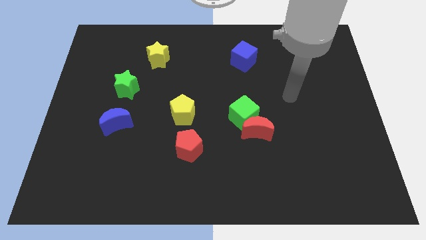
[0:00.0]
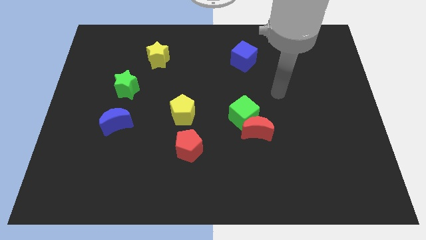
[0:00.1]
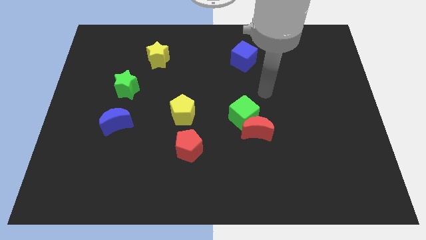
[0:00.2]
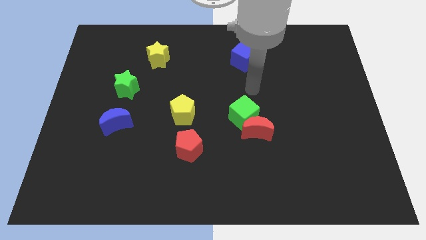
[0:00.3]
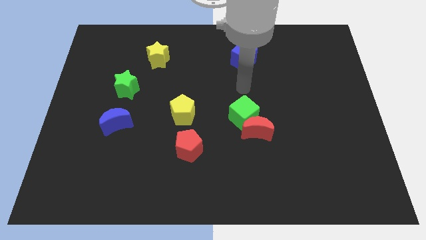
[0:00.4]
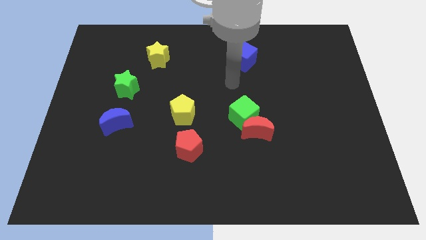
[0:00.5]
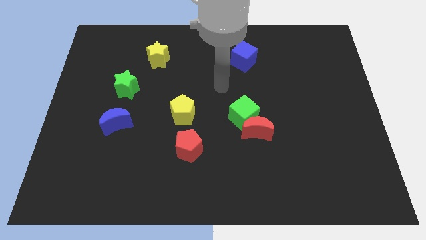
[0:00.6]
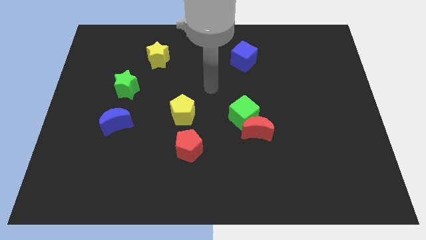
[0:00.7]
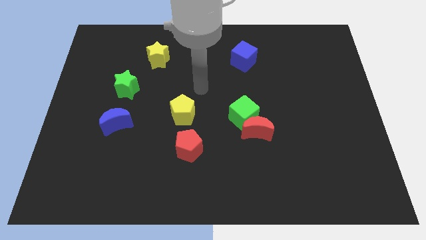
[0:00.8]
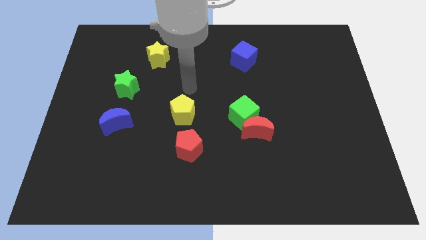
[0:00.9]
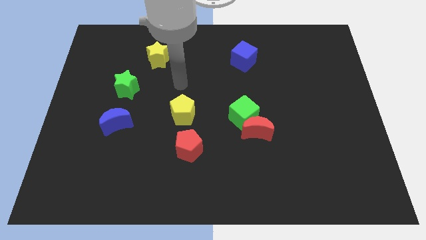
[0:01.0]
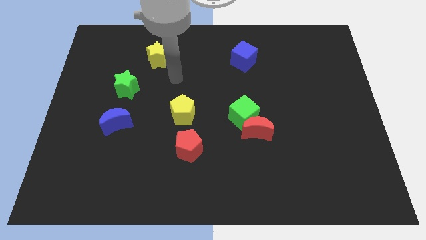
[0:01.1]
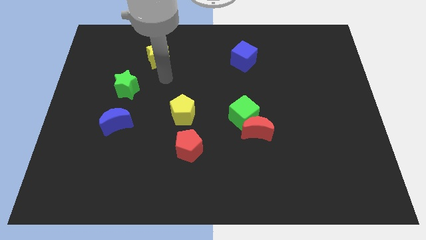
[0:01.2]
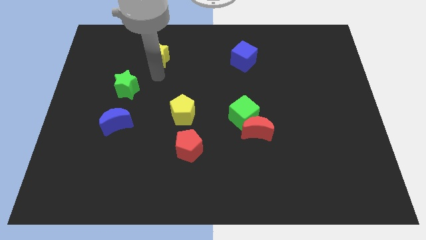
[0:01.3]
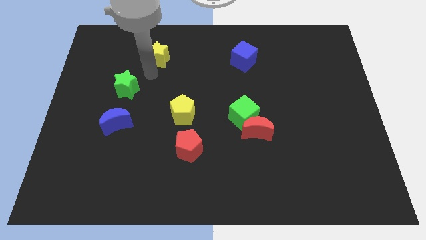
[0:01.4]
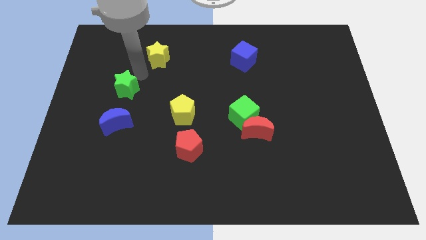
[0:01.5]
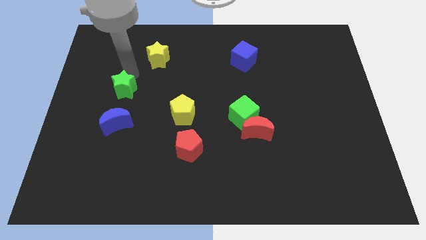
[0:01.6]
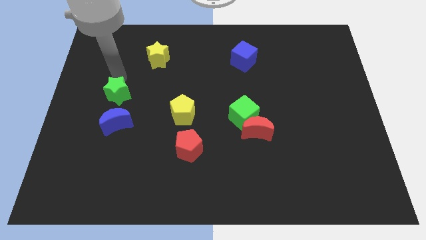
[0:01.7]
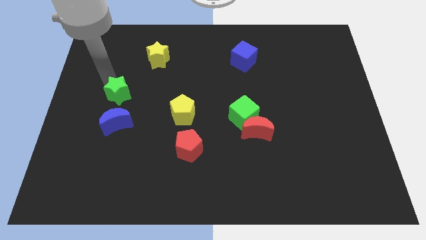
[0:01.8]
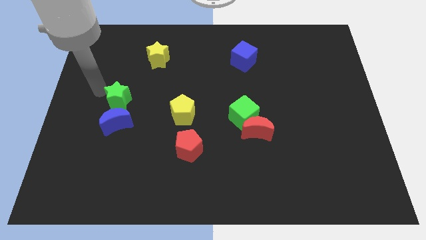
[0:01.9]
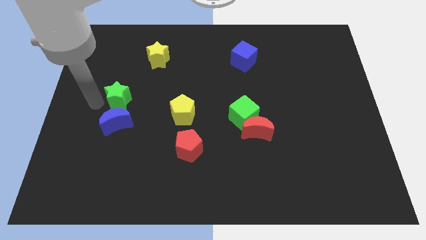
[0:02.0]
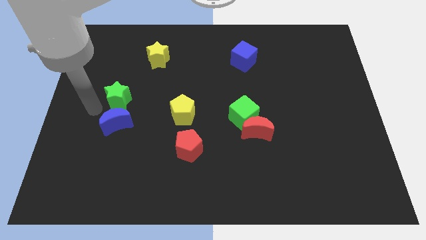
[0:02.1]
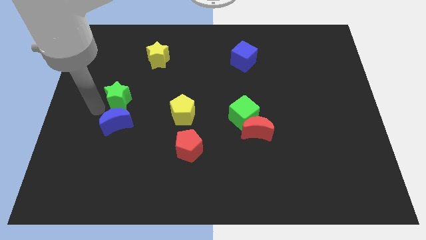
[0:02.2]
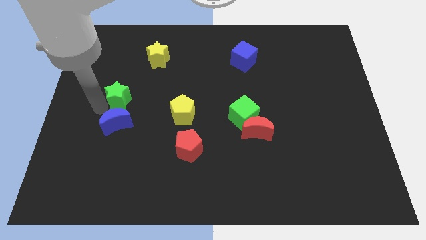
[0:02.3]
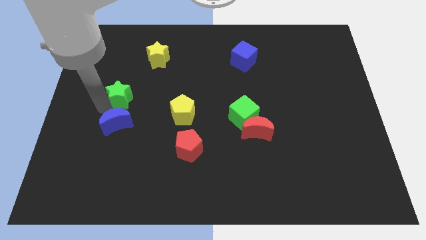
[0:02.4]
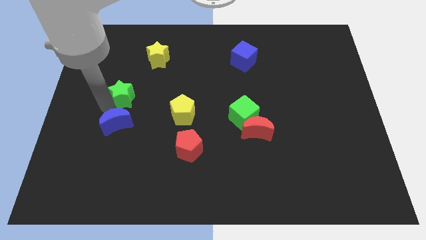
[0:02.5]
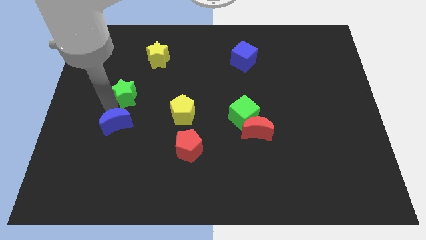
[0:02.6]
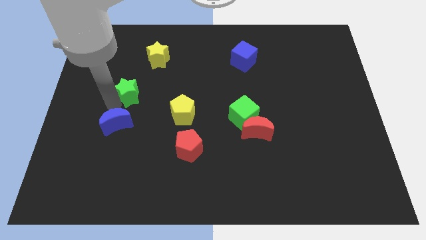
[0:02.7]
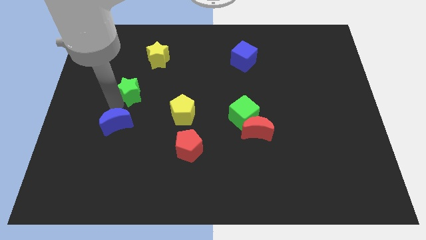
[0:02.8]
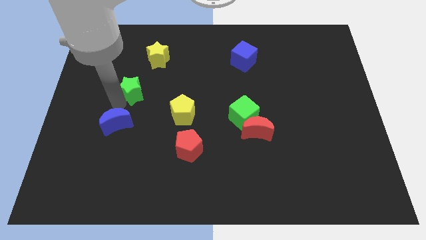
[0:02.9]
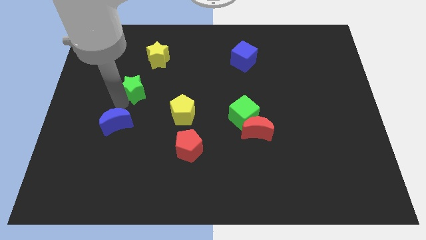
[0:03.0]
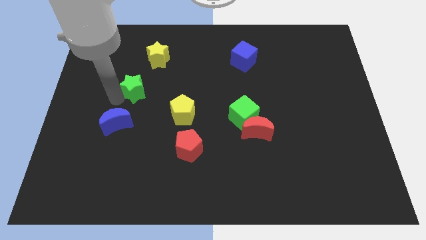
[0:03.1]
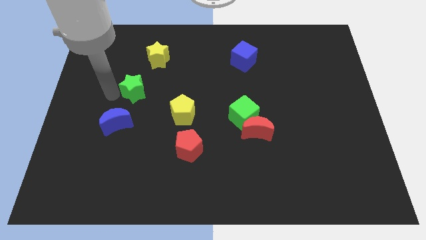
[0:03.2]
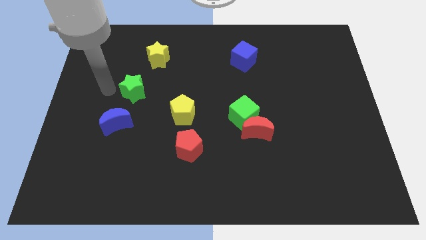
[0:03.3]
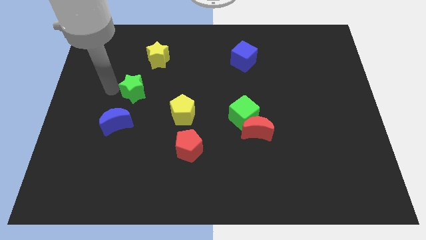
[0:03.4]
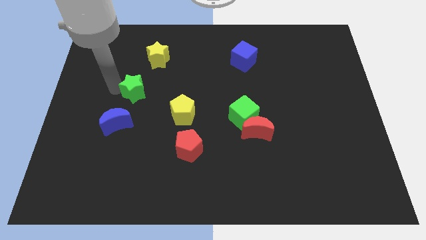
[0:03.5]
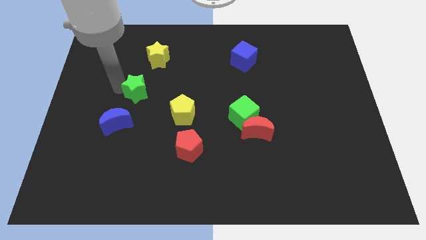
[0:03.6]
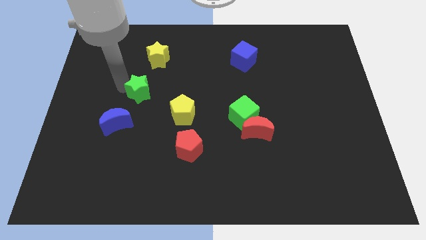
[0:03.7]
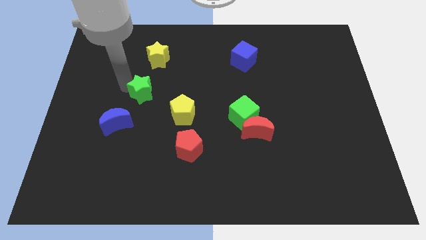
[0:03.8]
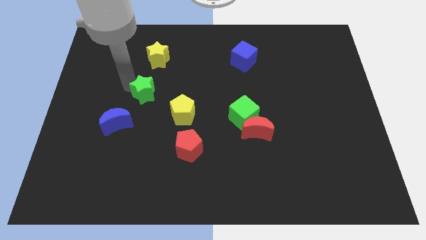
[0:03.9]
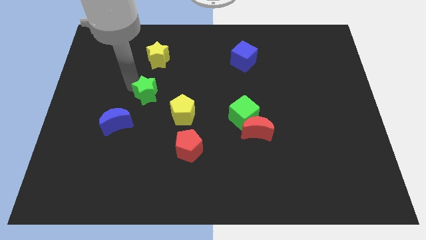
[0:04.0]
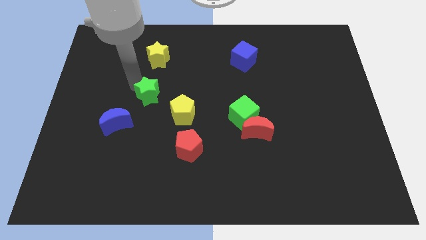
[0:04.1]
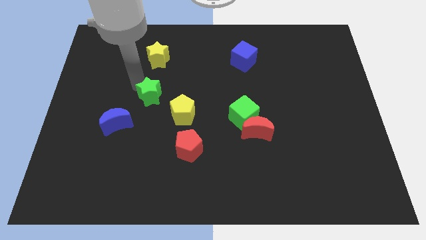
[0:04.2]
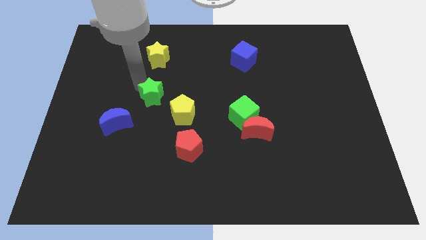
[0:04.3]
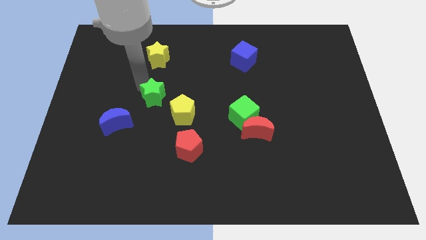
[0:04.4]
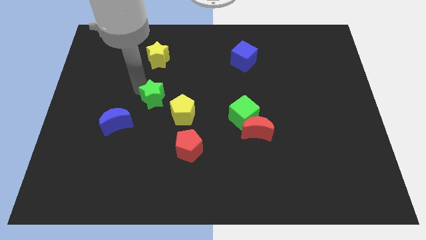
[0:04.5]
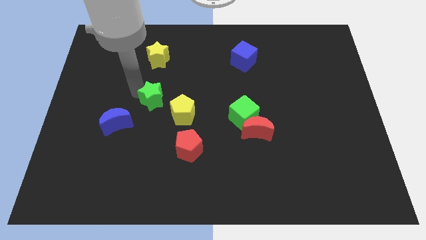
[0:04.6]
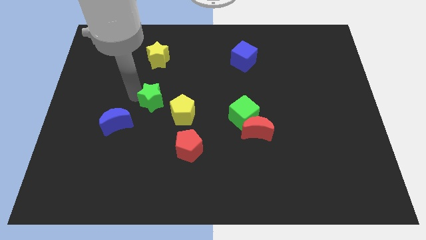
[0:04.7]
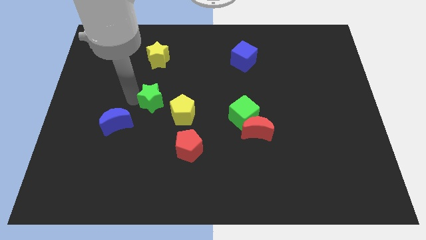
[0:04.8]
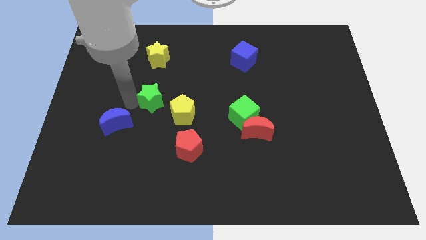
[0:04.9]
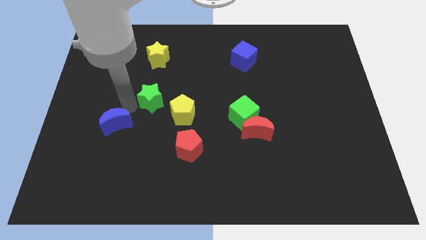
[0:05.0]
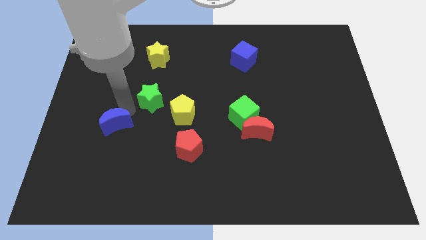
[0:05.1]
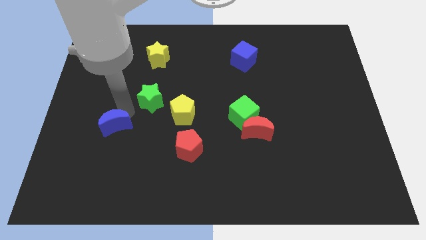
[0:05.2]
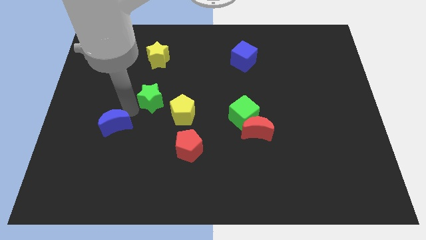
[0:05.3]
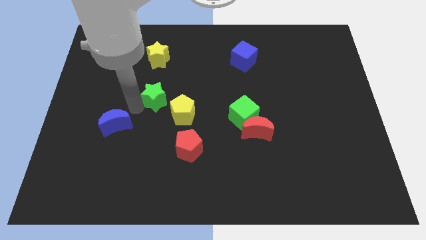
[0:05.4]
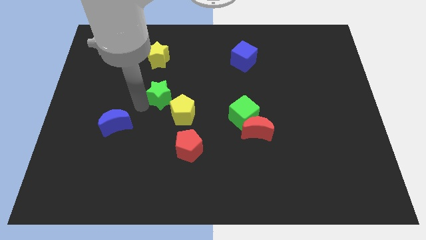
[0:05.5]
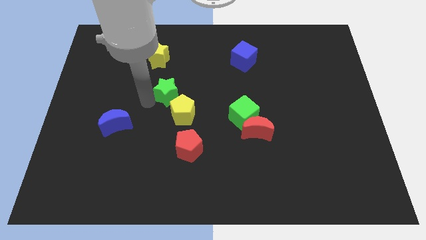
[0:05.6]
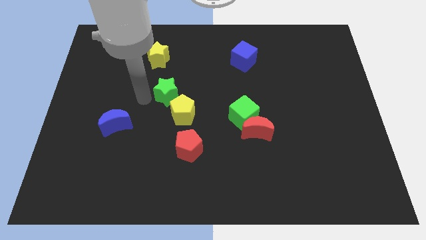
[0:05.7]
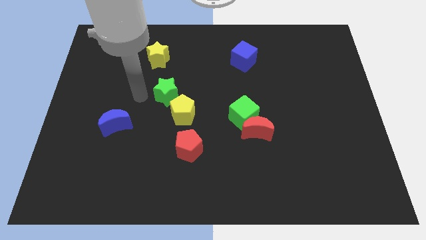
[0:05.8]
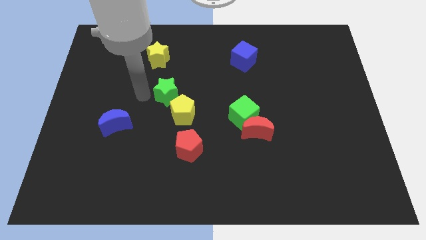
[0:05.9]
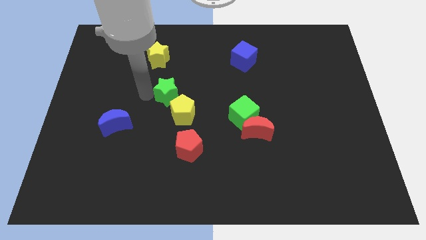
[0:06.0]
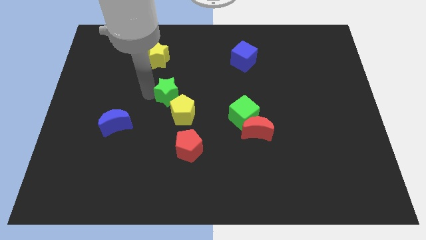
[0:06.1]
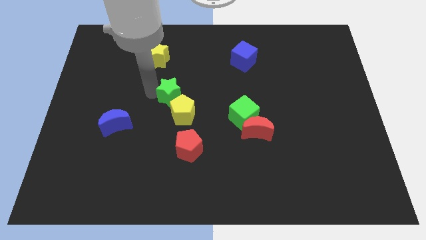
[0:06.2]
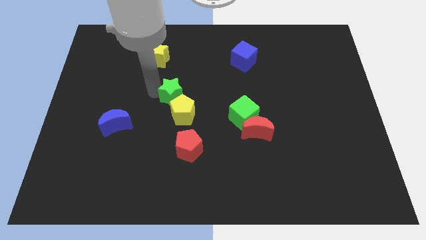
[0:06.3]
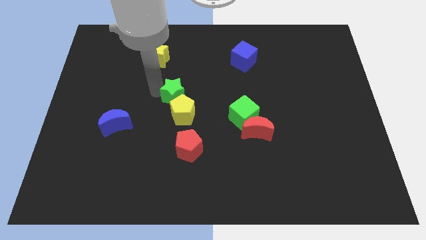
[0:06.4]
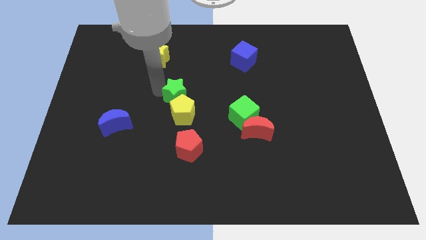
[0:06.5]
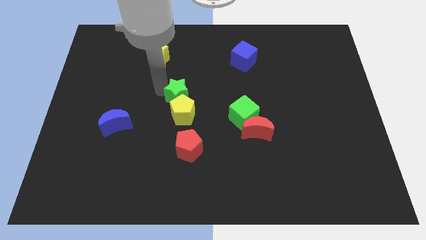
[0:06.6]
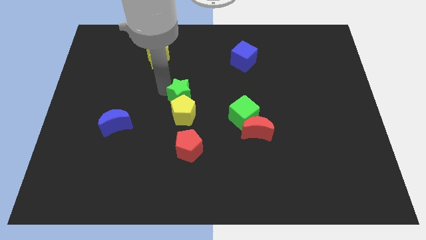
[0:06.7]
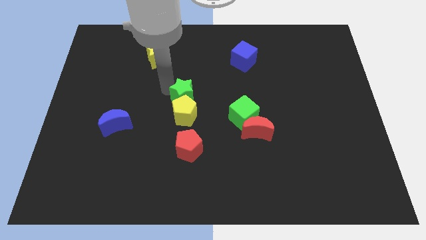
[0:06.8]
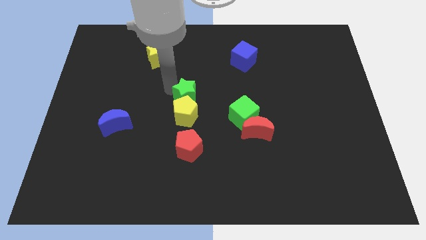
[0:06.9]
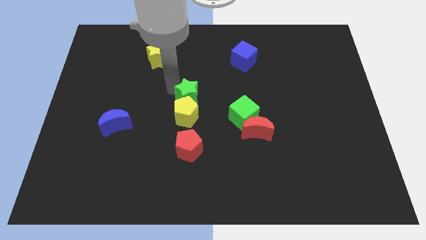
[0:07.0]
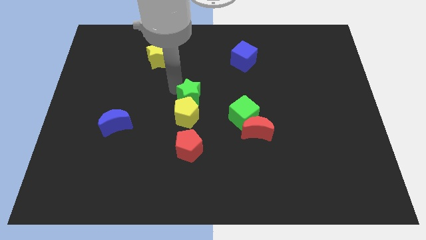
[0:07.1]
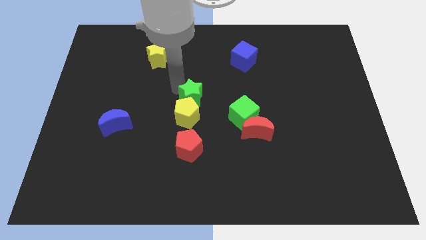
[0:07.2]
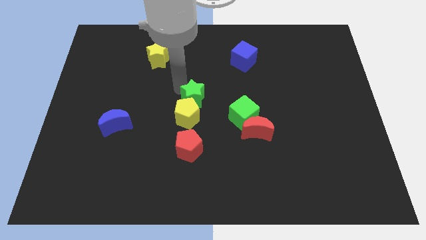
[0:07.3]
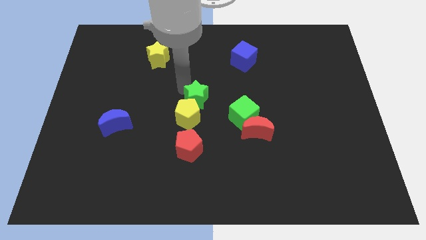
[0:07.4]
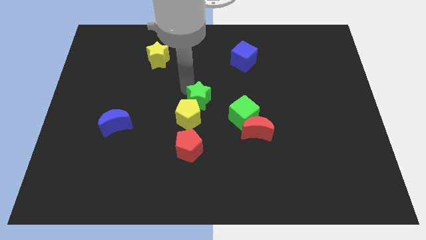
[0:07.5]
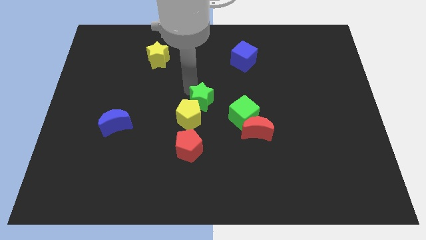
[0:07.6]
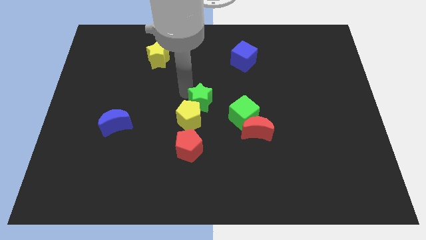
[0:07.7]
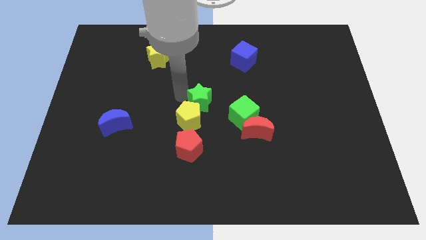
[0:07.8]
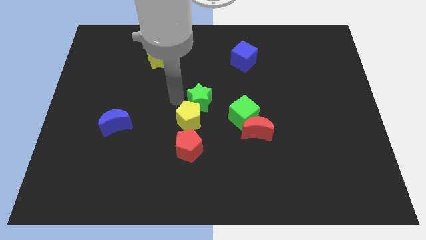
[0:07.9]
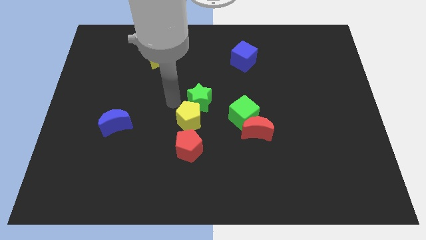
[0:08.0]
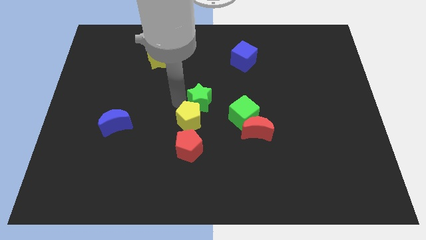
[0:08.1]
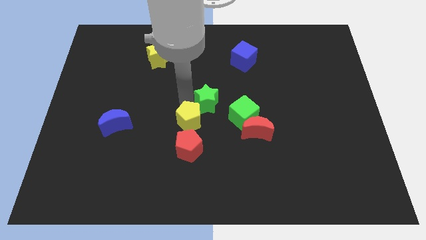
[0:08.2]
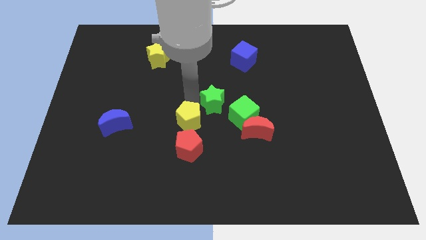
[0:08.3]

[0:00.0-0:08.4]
slide the green star to the right
